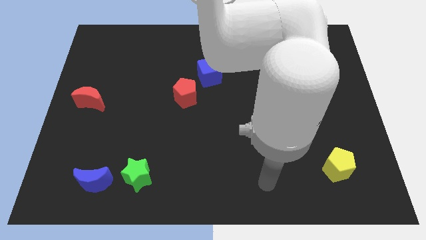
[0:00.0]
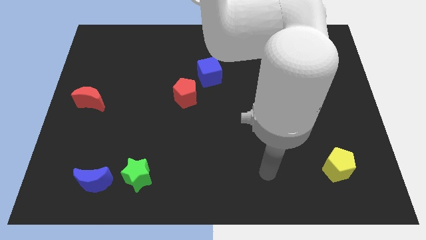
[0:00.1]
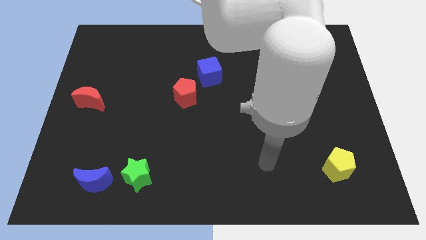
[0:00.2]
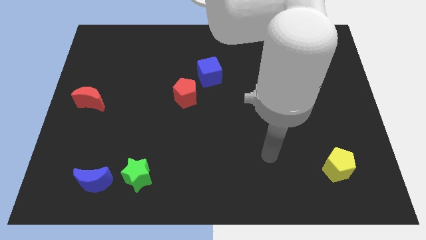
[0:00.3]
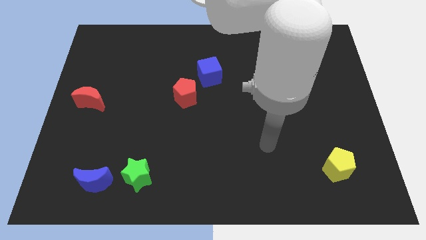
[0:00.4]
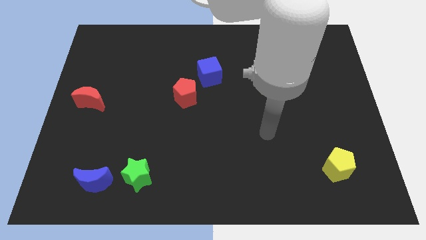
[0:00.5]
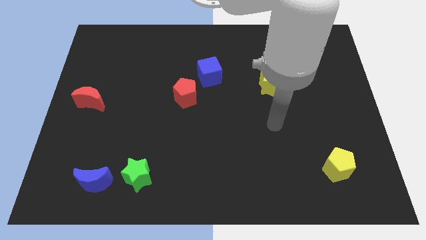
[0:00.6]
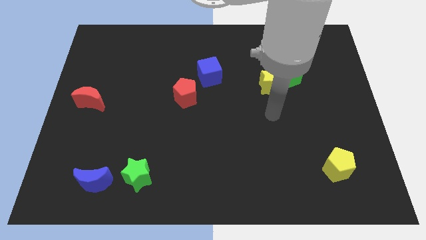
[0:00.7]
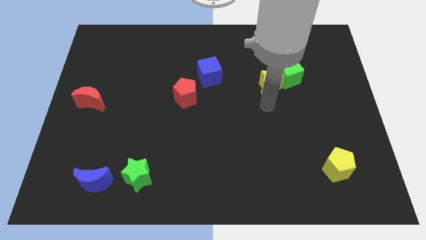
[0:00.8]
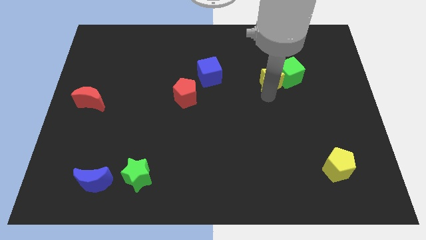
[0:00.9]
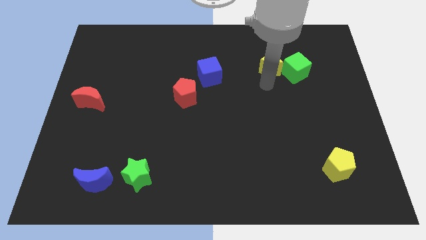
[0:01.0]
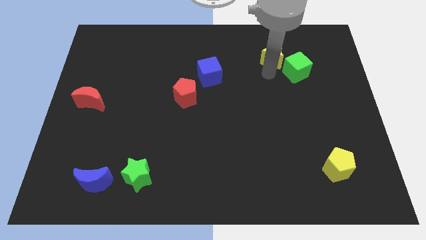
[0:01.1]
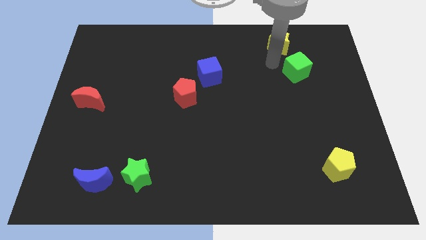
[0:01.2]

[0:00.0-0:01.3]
separate the green cube from the yellow star

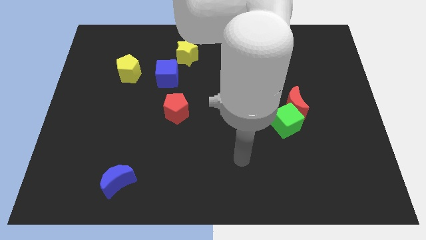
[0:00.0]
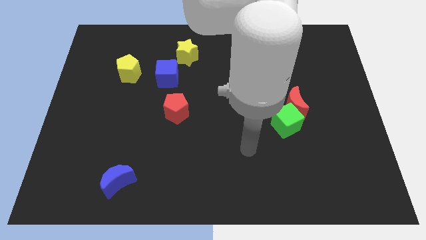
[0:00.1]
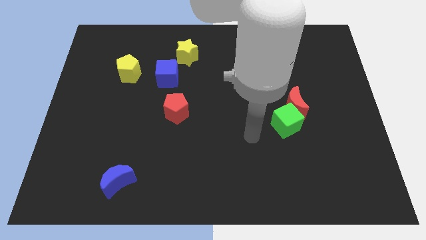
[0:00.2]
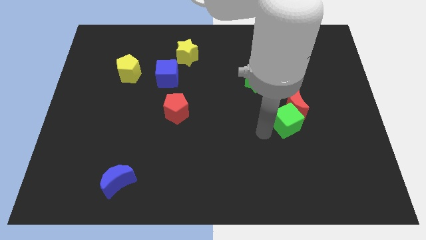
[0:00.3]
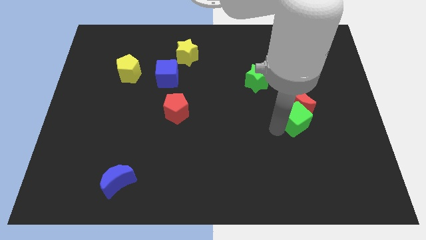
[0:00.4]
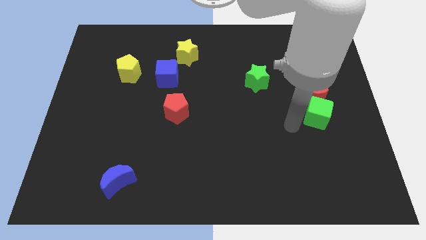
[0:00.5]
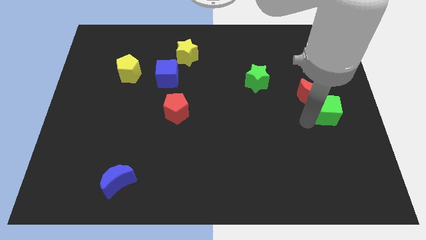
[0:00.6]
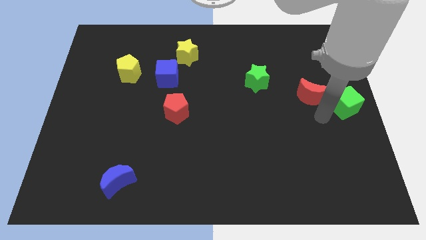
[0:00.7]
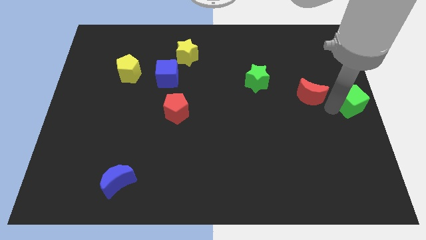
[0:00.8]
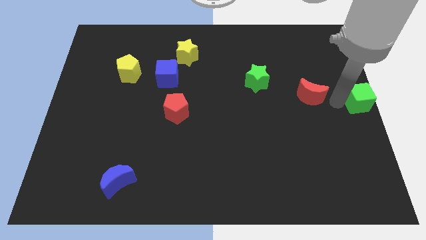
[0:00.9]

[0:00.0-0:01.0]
pull the red moon apart from the green cube

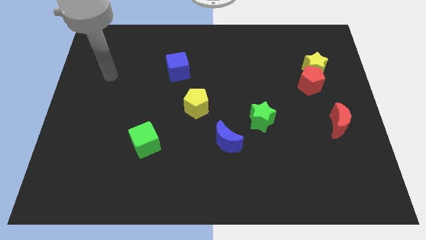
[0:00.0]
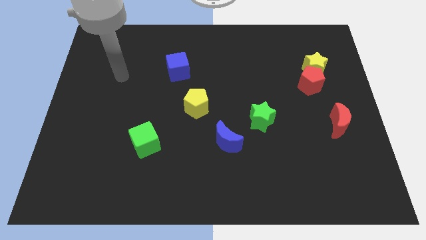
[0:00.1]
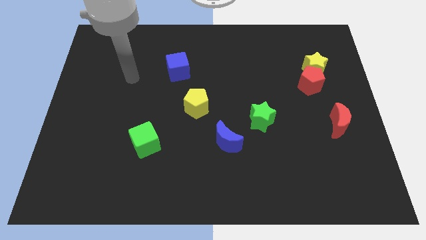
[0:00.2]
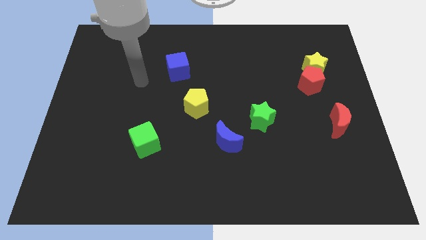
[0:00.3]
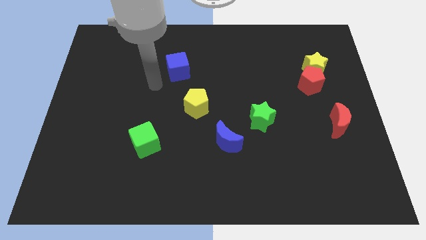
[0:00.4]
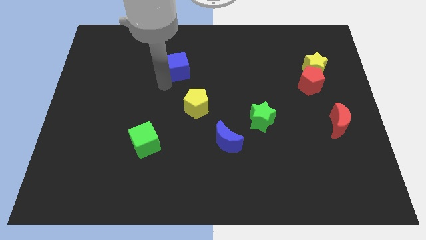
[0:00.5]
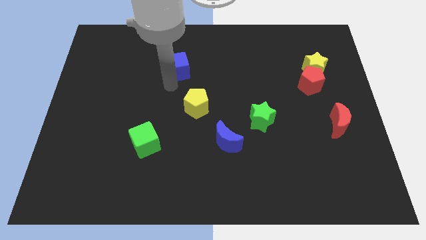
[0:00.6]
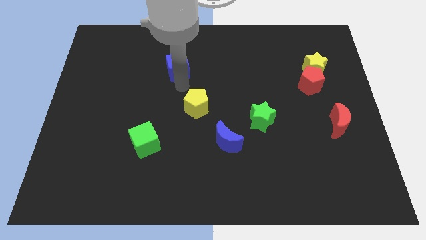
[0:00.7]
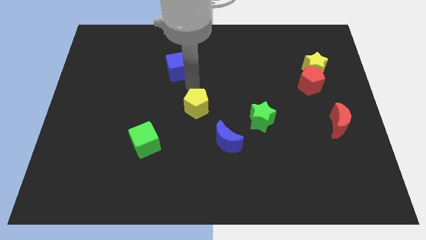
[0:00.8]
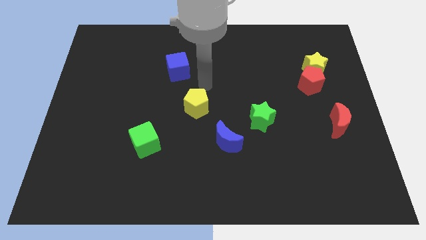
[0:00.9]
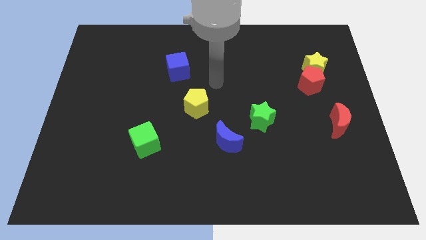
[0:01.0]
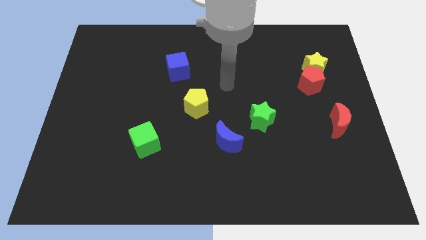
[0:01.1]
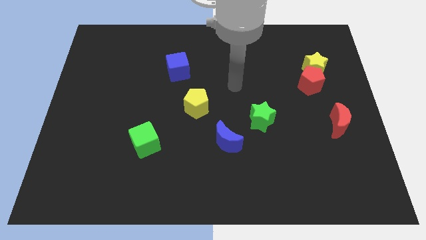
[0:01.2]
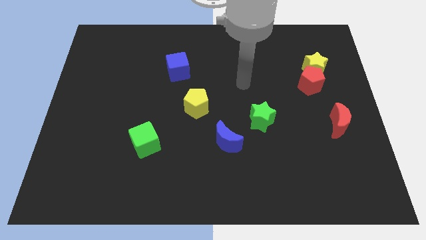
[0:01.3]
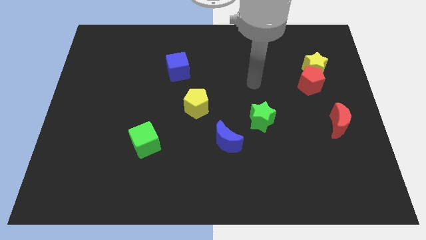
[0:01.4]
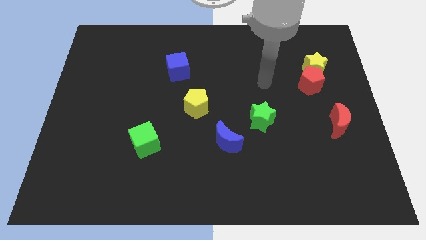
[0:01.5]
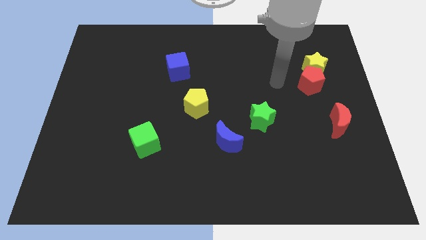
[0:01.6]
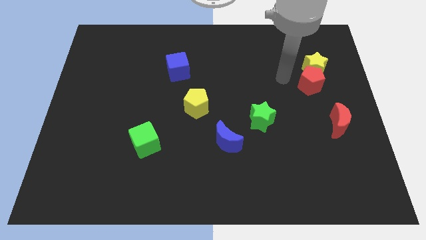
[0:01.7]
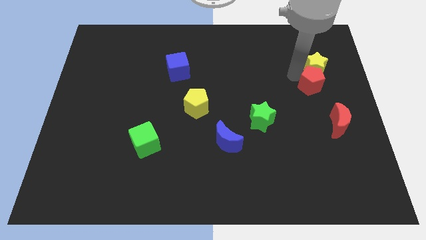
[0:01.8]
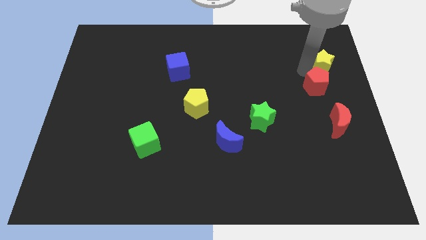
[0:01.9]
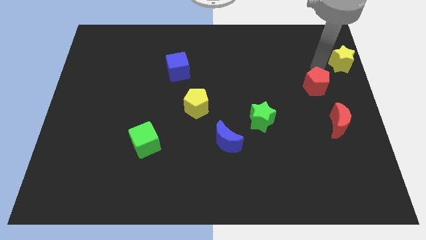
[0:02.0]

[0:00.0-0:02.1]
pull the red pentagon apart from the yellow star

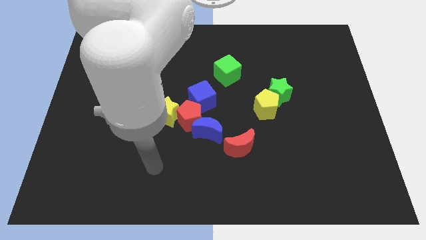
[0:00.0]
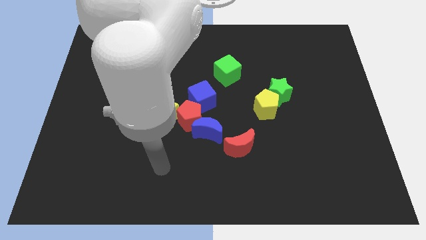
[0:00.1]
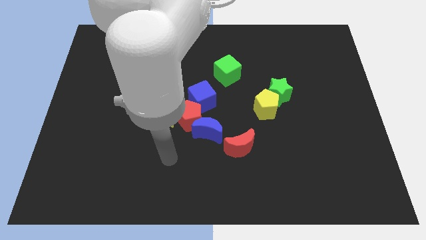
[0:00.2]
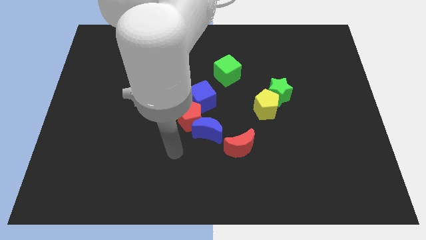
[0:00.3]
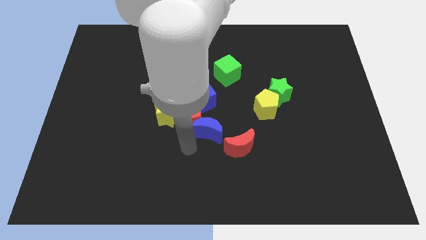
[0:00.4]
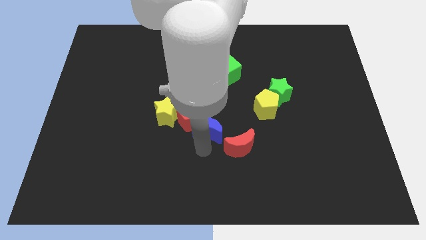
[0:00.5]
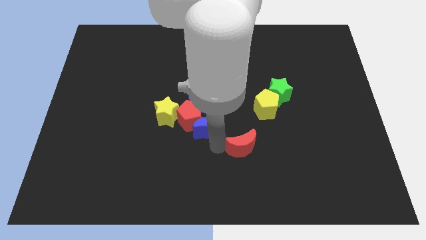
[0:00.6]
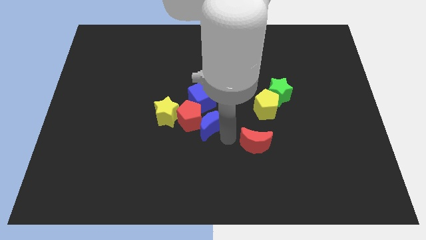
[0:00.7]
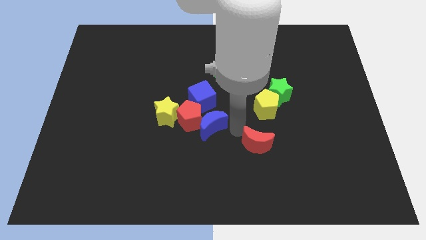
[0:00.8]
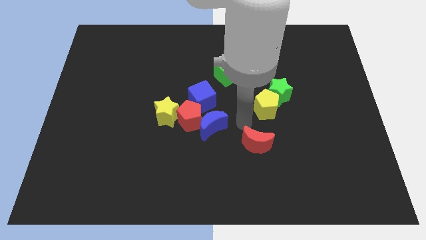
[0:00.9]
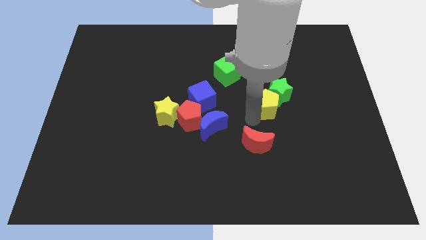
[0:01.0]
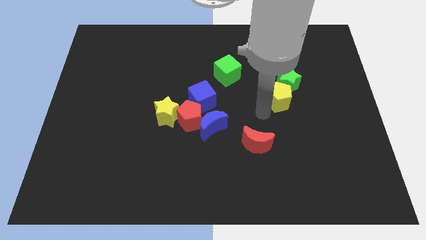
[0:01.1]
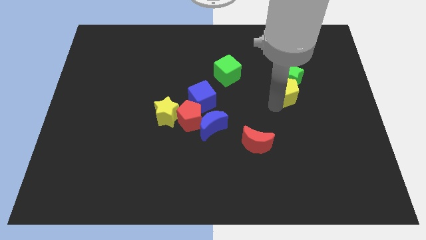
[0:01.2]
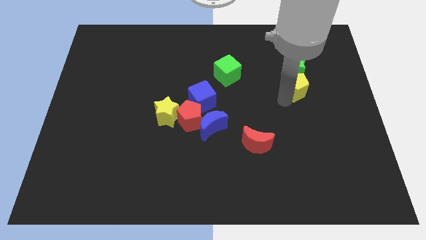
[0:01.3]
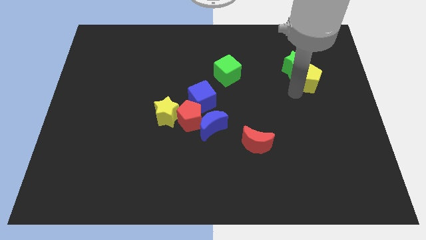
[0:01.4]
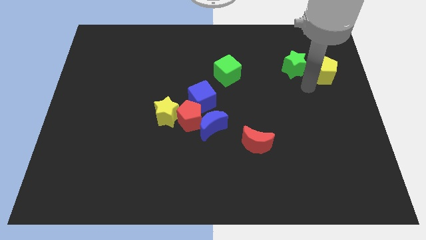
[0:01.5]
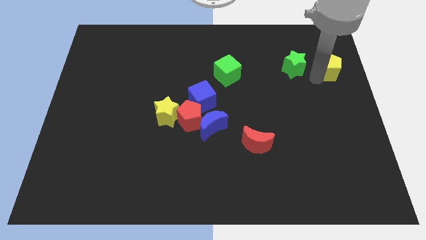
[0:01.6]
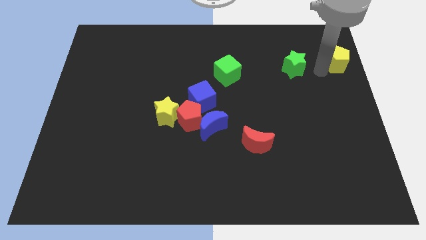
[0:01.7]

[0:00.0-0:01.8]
move the green star away from the yellow pentagon

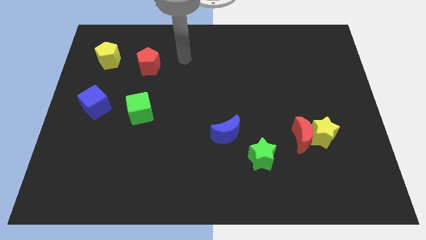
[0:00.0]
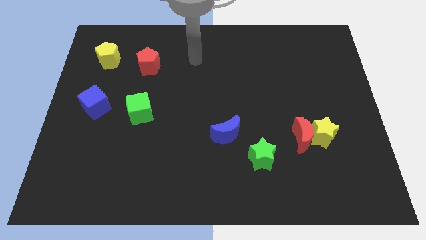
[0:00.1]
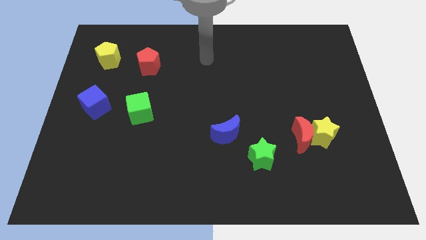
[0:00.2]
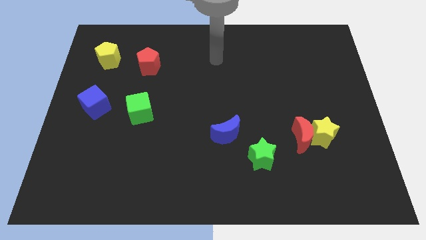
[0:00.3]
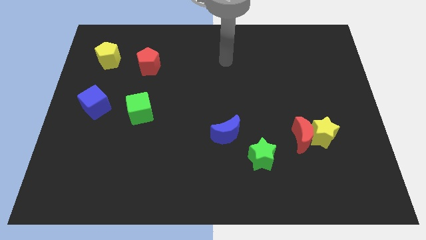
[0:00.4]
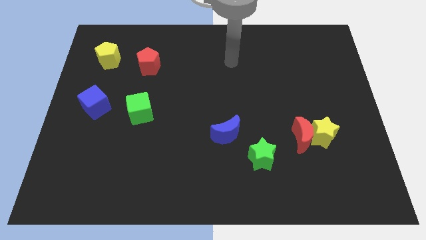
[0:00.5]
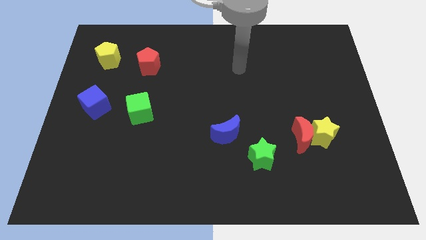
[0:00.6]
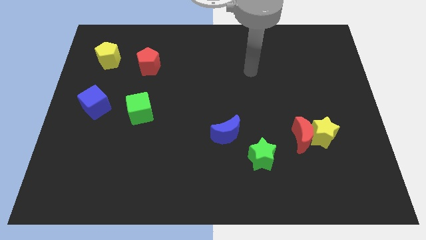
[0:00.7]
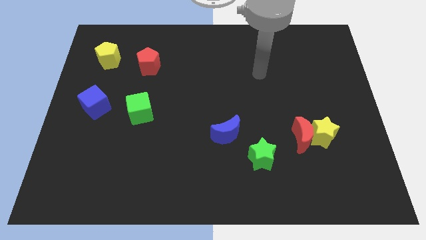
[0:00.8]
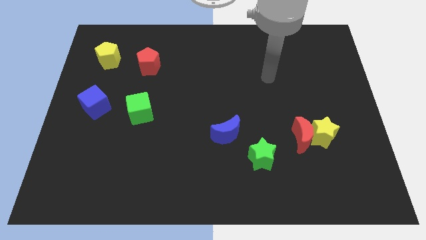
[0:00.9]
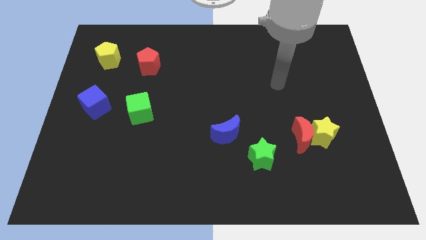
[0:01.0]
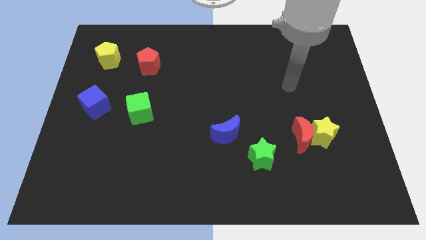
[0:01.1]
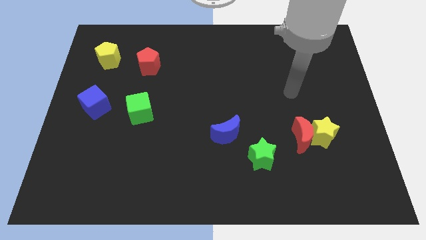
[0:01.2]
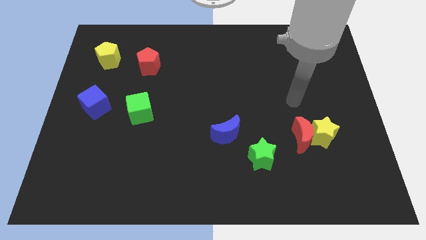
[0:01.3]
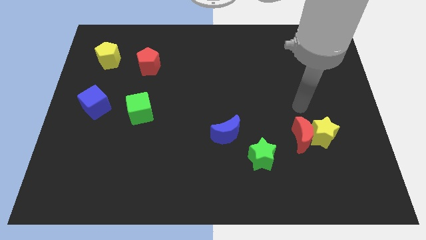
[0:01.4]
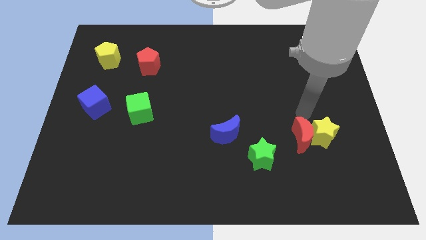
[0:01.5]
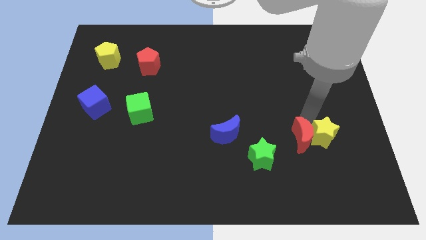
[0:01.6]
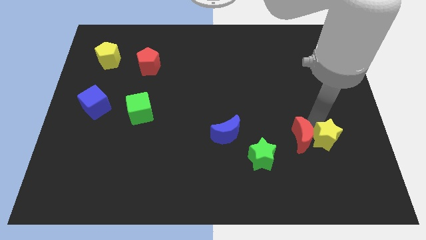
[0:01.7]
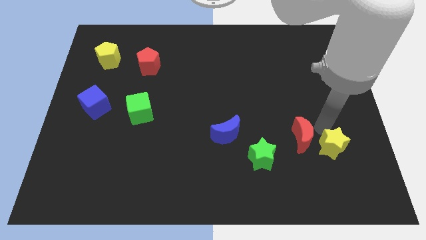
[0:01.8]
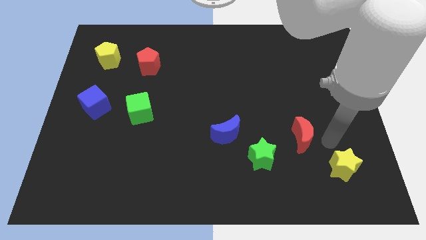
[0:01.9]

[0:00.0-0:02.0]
pull the red moon apart from the yellow star

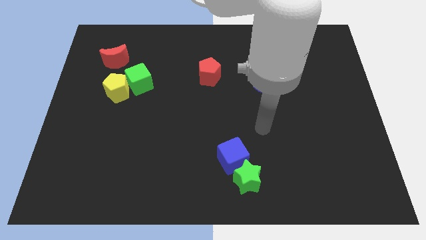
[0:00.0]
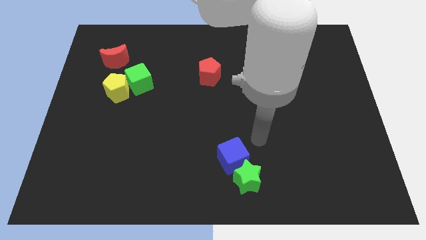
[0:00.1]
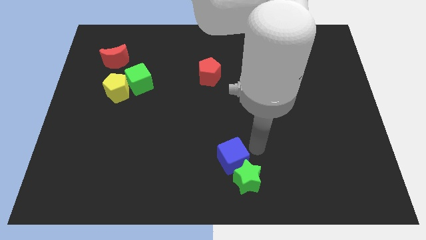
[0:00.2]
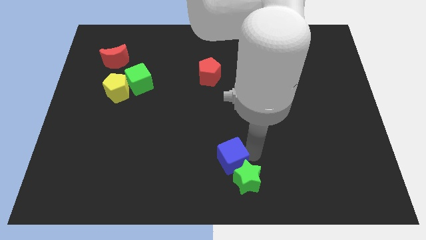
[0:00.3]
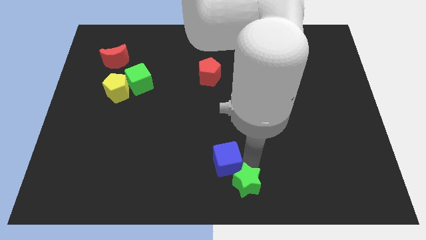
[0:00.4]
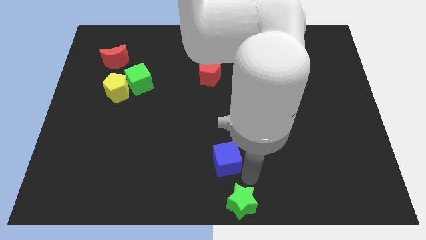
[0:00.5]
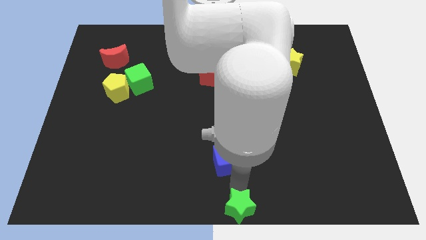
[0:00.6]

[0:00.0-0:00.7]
move the blue cube away from the green star

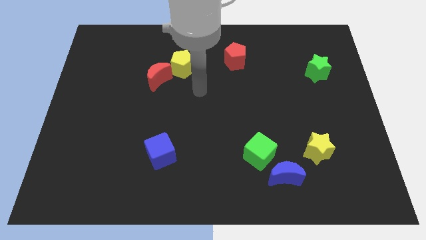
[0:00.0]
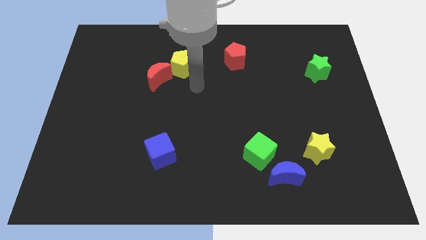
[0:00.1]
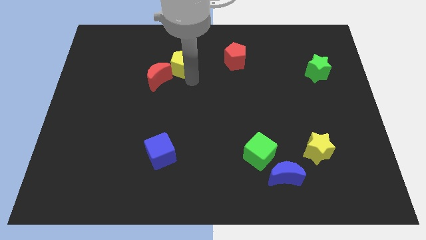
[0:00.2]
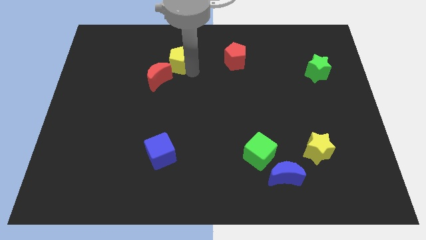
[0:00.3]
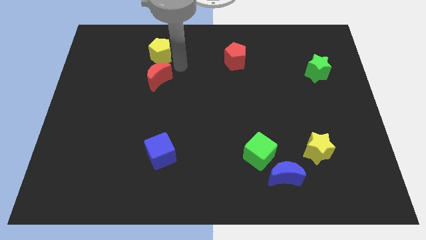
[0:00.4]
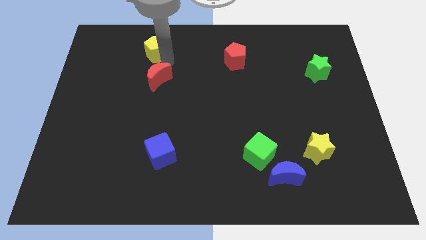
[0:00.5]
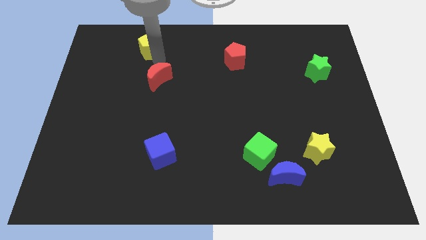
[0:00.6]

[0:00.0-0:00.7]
separate the red moon from the yellow pentagon
